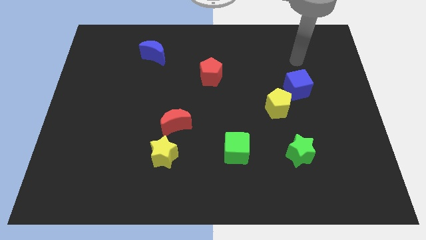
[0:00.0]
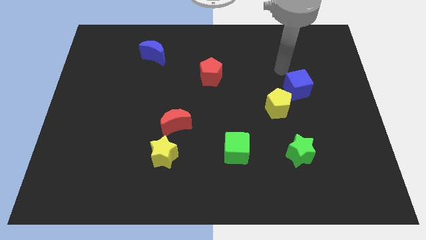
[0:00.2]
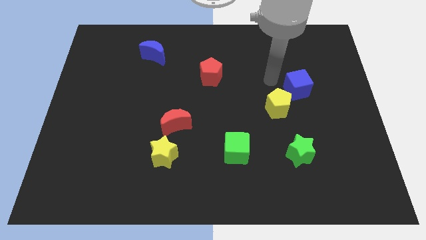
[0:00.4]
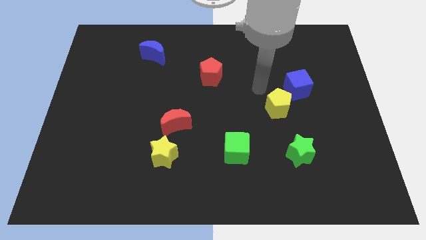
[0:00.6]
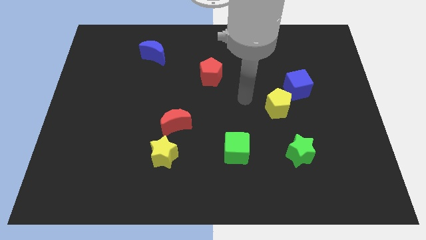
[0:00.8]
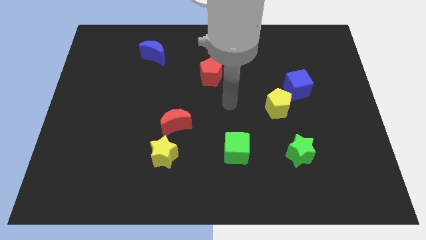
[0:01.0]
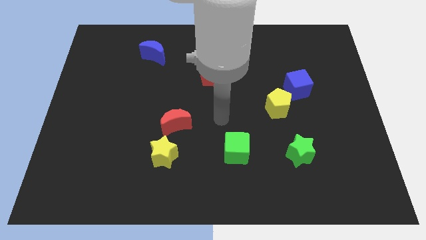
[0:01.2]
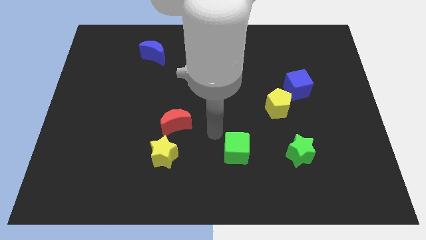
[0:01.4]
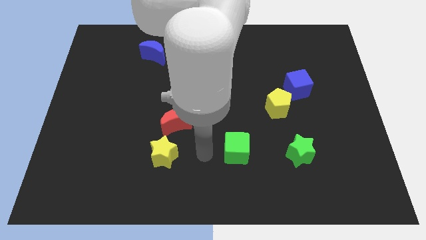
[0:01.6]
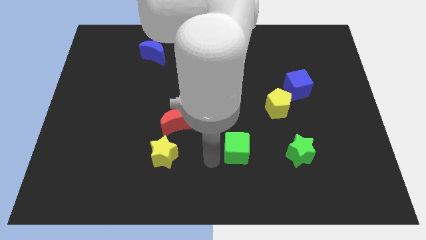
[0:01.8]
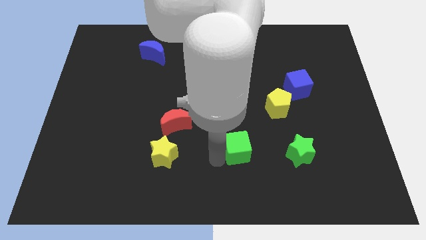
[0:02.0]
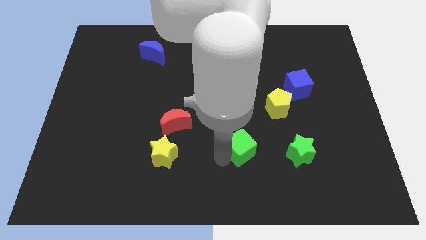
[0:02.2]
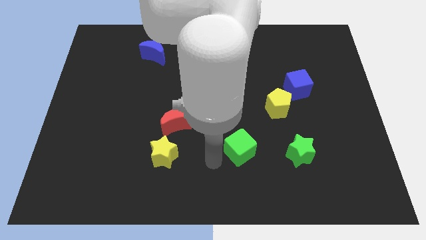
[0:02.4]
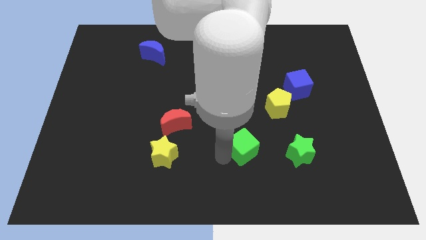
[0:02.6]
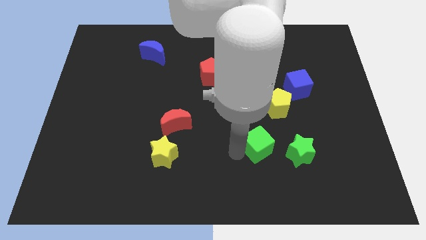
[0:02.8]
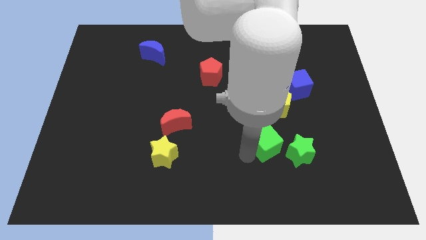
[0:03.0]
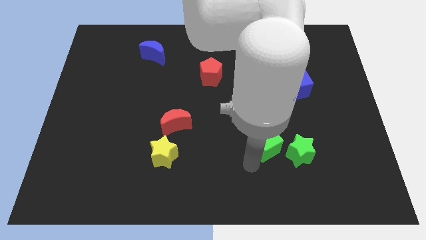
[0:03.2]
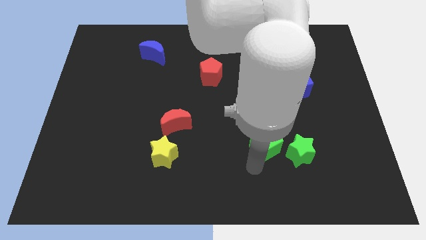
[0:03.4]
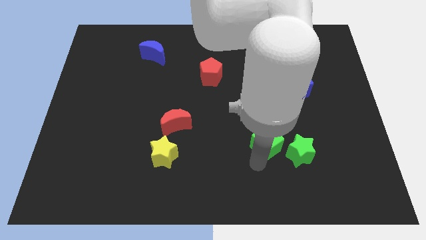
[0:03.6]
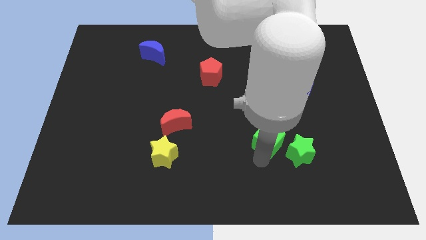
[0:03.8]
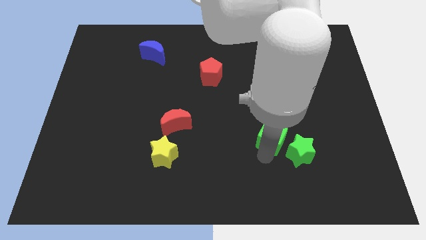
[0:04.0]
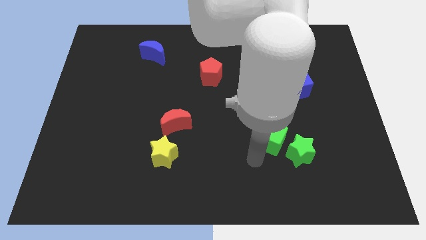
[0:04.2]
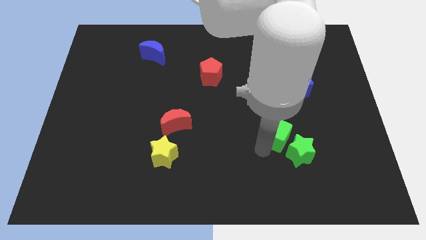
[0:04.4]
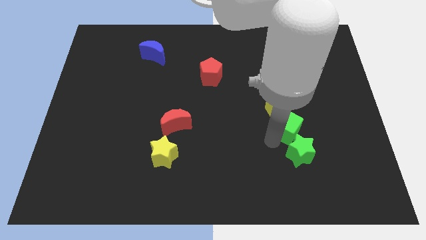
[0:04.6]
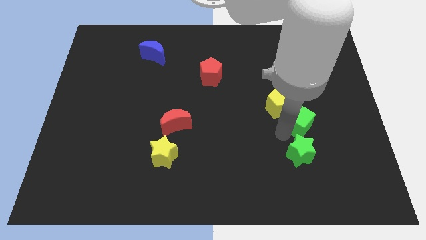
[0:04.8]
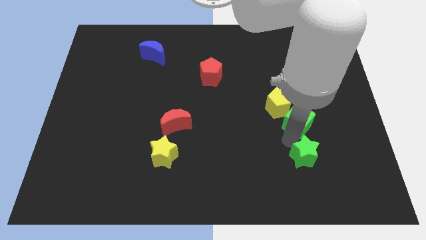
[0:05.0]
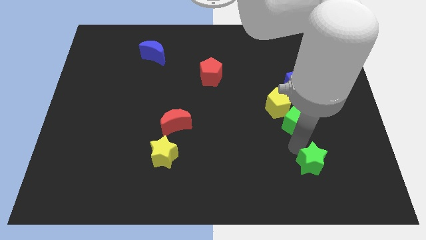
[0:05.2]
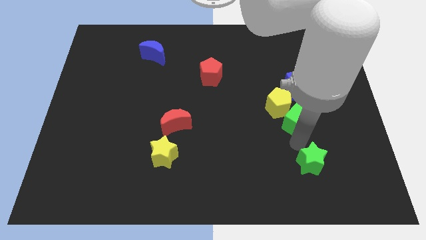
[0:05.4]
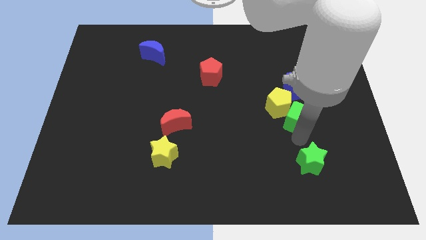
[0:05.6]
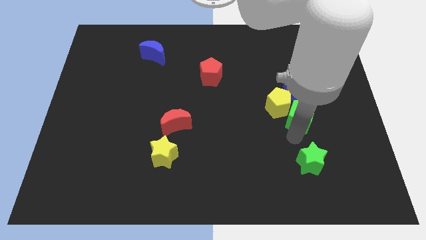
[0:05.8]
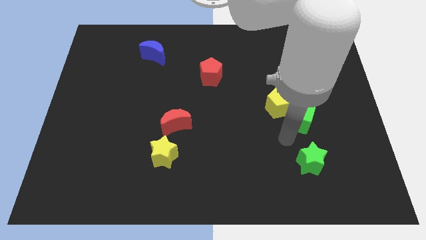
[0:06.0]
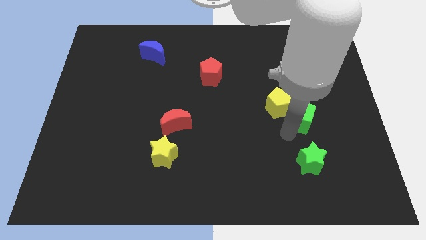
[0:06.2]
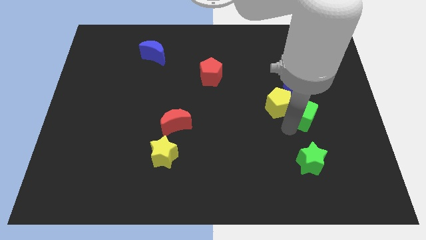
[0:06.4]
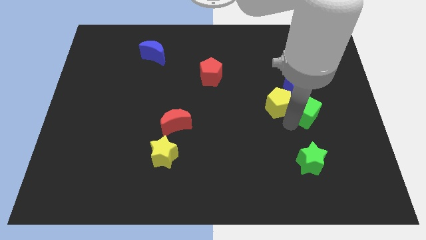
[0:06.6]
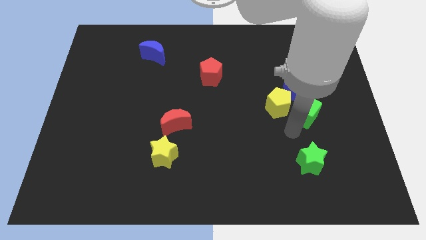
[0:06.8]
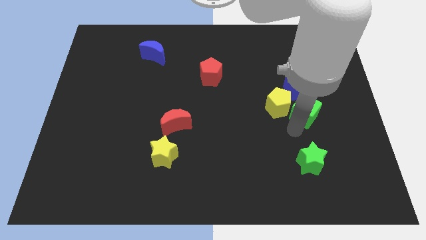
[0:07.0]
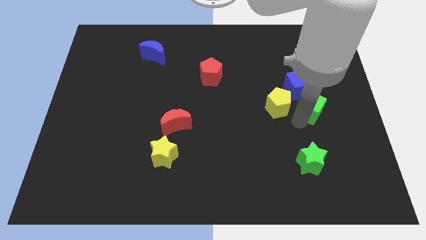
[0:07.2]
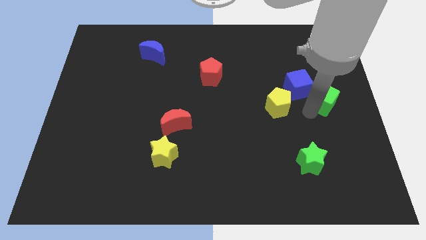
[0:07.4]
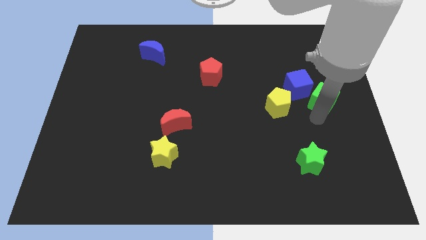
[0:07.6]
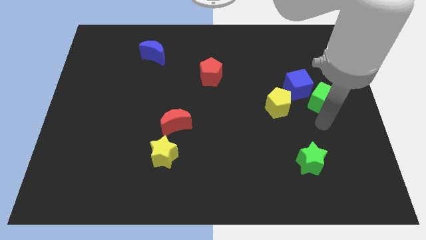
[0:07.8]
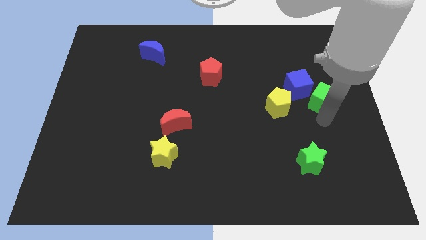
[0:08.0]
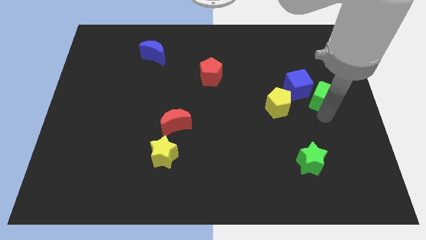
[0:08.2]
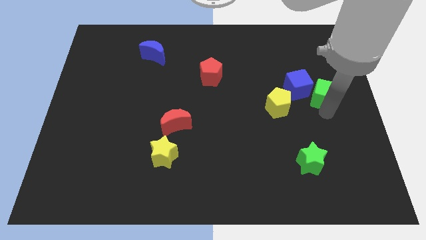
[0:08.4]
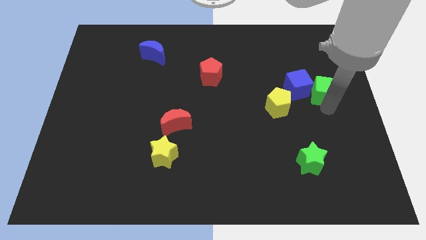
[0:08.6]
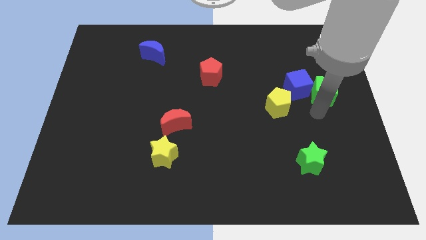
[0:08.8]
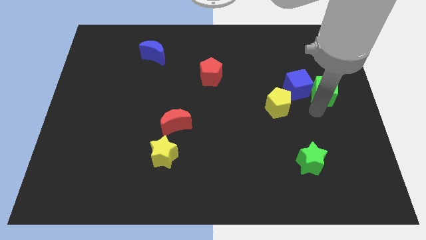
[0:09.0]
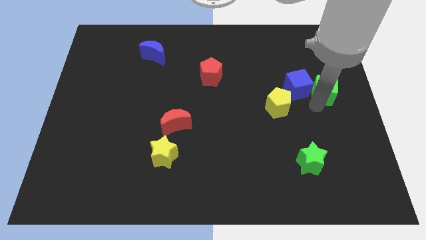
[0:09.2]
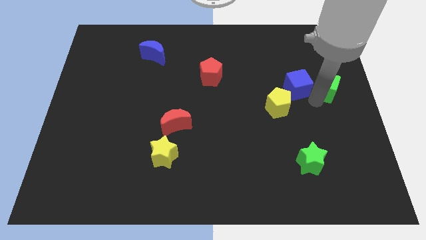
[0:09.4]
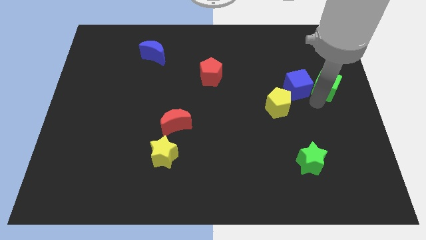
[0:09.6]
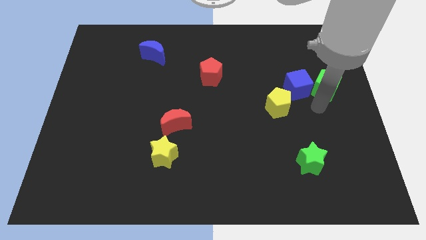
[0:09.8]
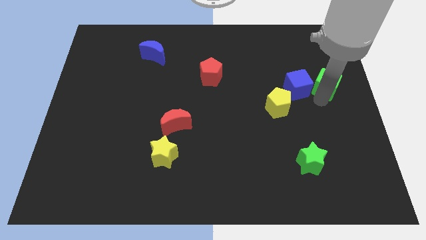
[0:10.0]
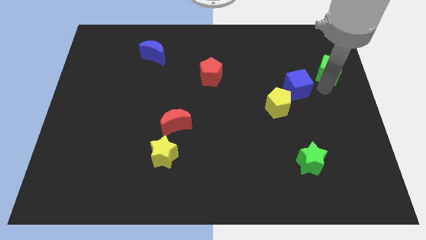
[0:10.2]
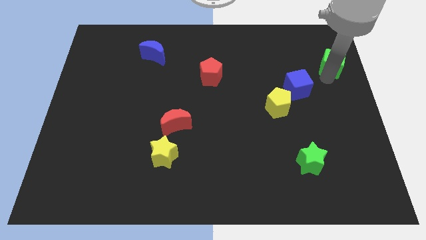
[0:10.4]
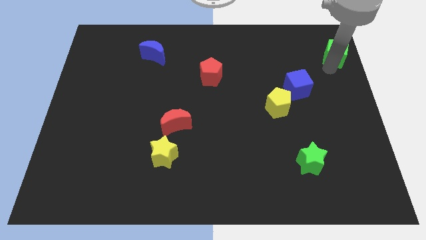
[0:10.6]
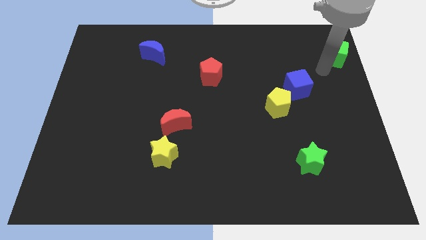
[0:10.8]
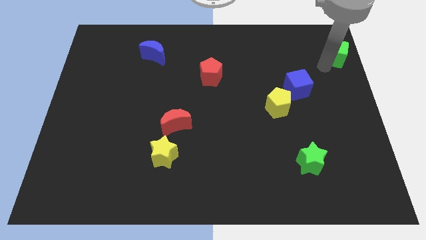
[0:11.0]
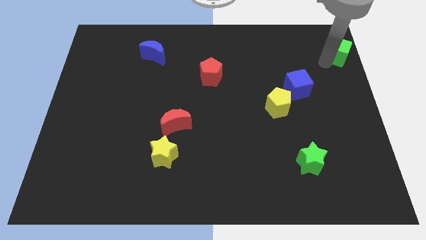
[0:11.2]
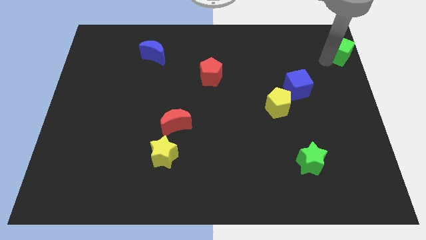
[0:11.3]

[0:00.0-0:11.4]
push the green cube to the top right corner

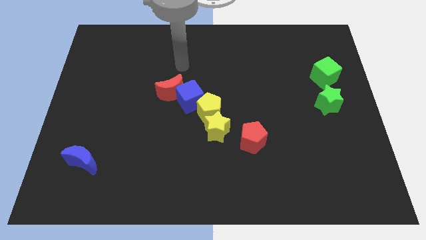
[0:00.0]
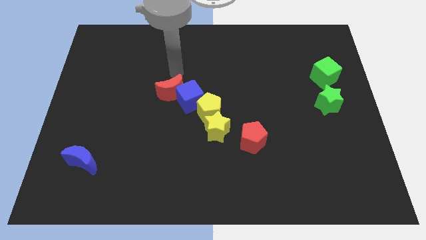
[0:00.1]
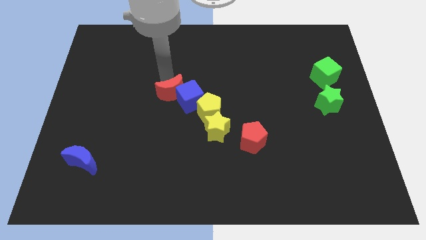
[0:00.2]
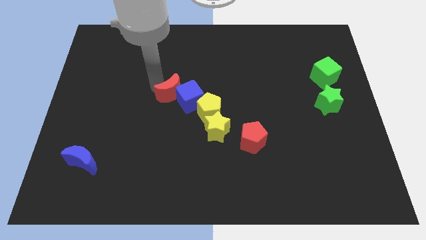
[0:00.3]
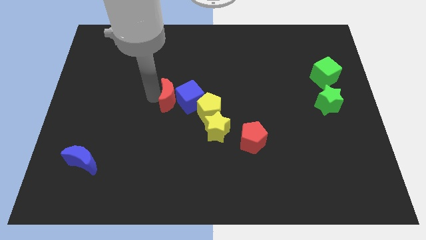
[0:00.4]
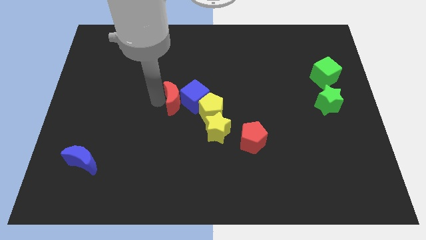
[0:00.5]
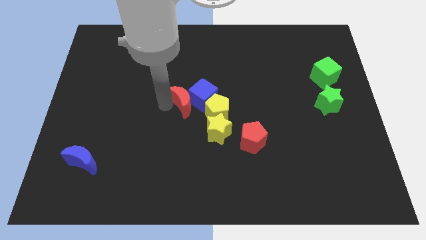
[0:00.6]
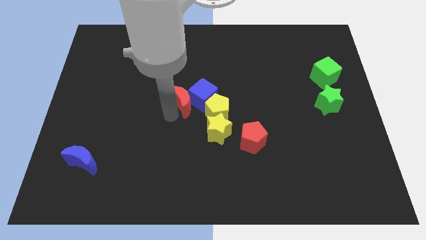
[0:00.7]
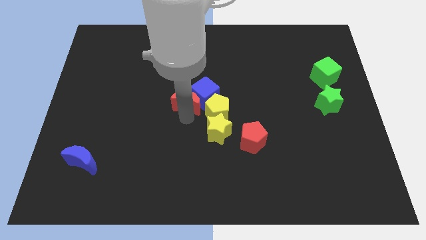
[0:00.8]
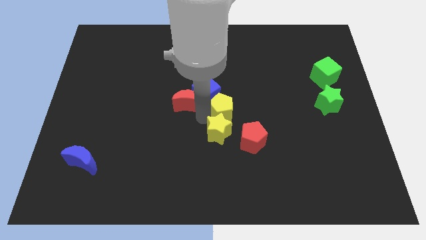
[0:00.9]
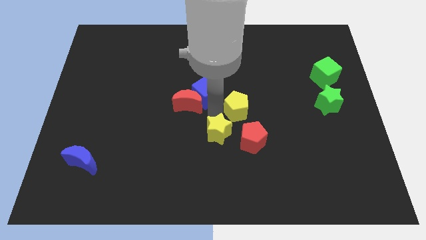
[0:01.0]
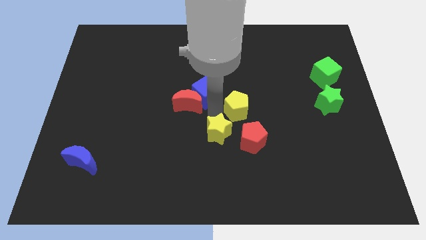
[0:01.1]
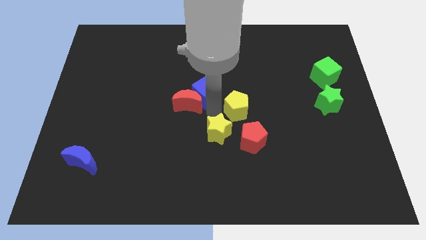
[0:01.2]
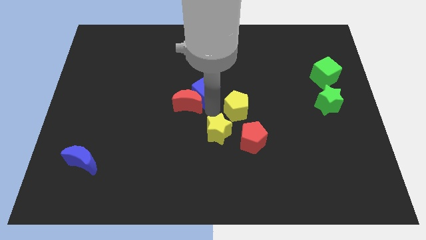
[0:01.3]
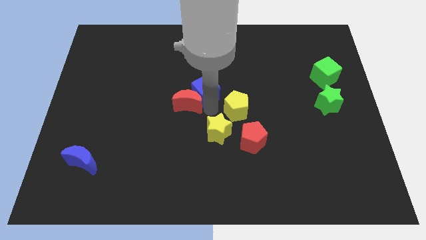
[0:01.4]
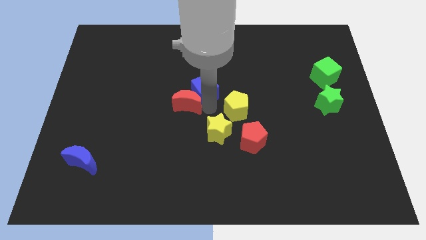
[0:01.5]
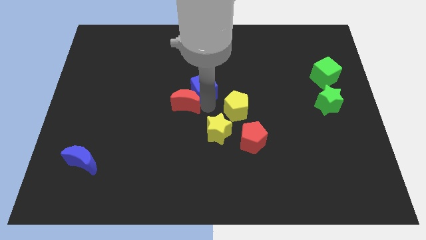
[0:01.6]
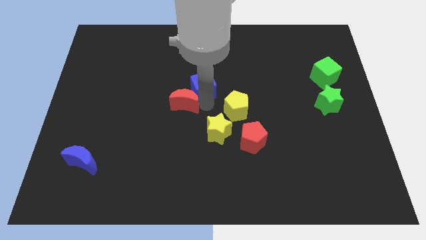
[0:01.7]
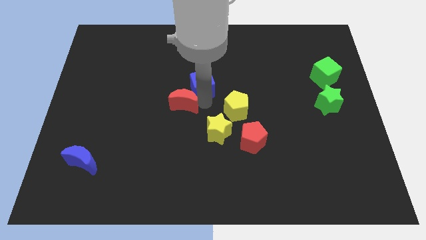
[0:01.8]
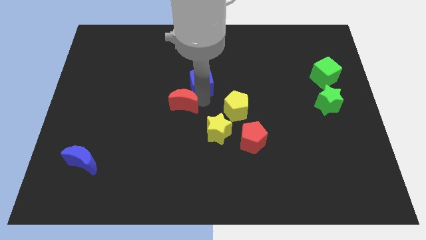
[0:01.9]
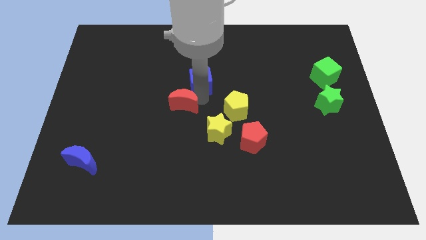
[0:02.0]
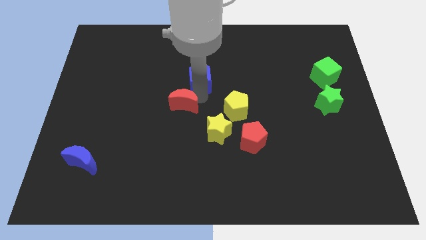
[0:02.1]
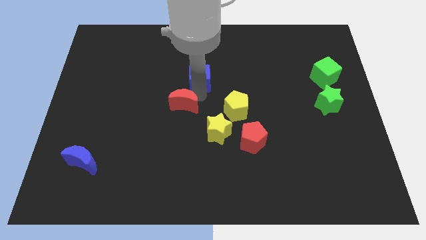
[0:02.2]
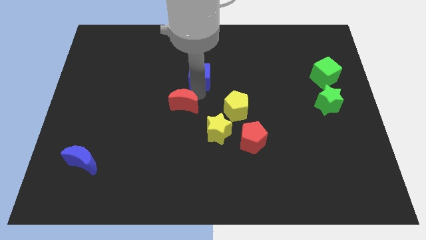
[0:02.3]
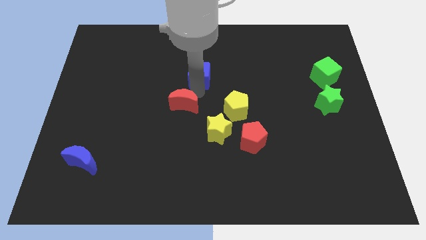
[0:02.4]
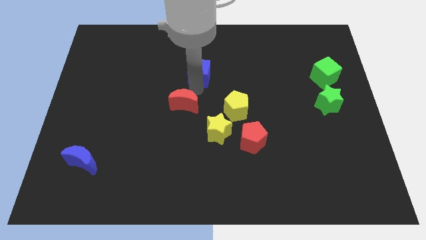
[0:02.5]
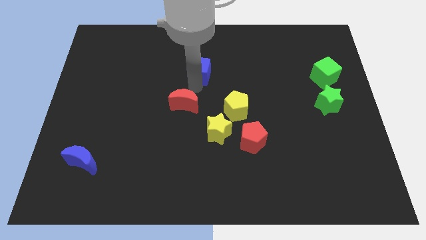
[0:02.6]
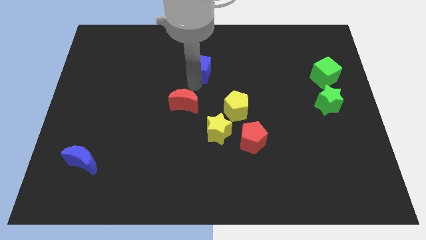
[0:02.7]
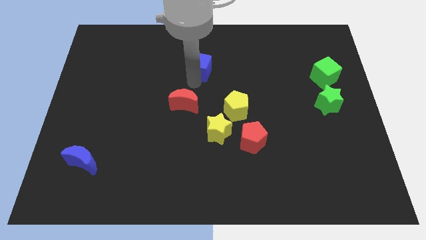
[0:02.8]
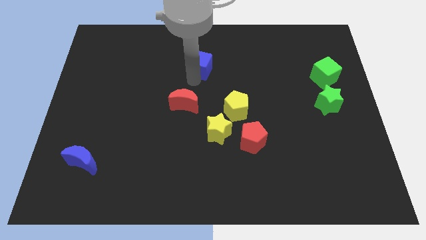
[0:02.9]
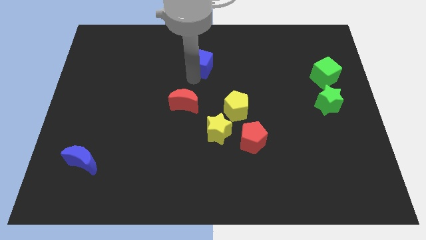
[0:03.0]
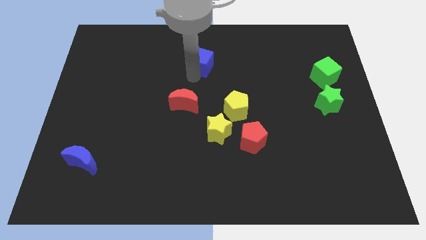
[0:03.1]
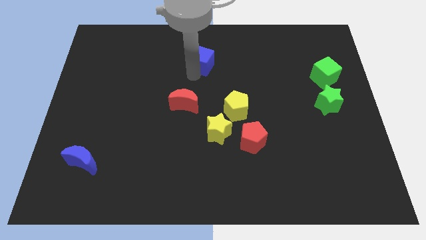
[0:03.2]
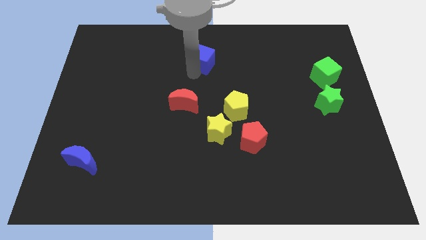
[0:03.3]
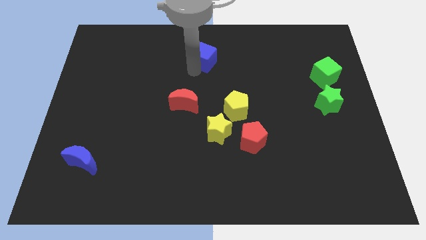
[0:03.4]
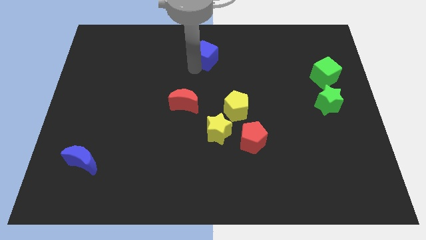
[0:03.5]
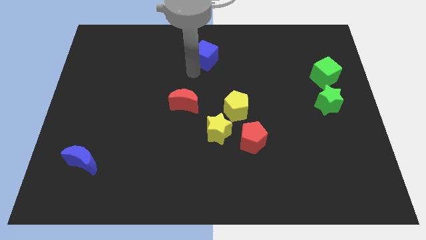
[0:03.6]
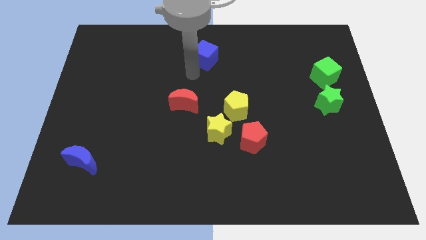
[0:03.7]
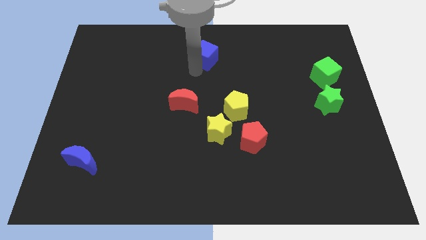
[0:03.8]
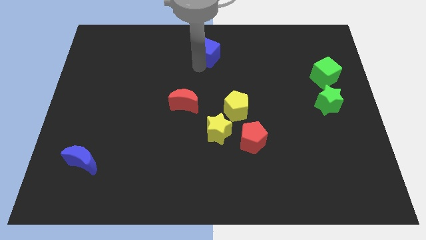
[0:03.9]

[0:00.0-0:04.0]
move the blue cube to the top
